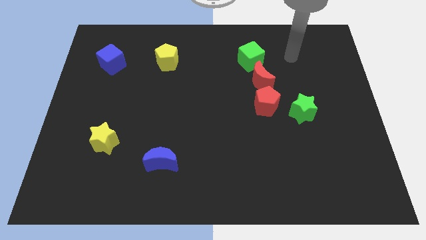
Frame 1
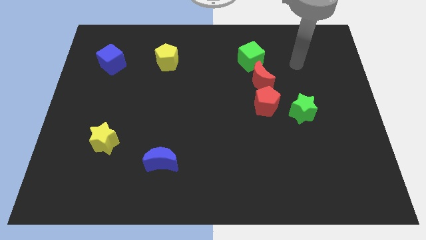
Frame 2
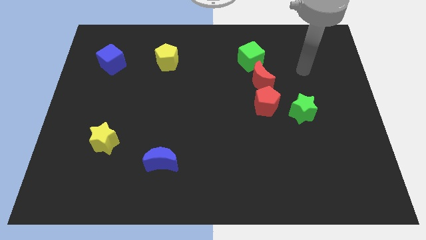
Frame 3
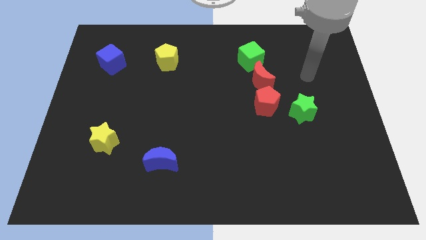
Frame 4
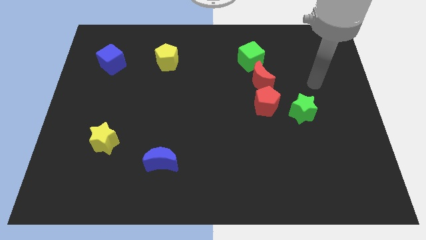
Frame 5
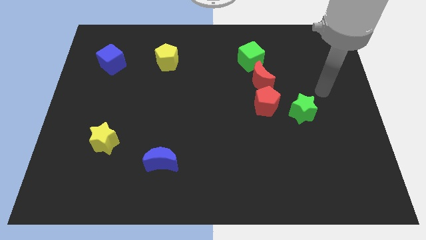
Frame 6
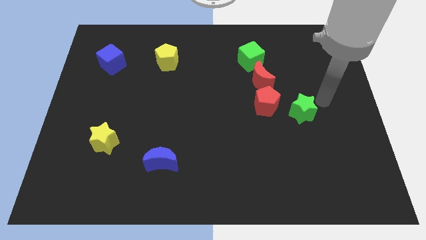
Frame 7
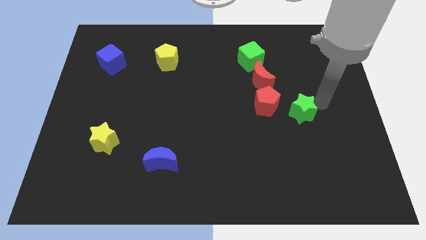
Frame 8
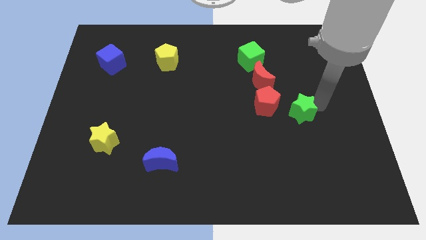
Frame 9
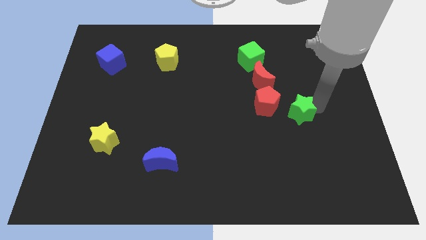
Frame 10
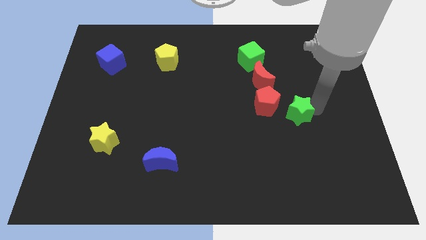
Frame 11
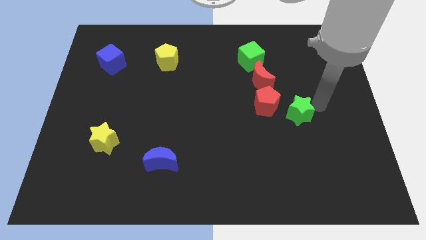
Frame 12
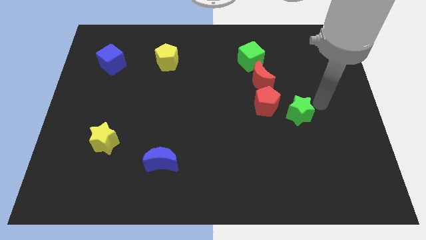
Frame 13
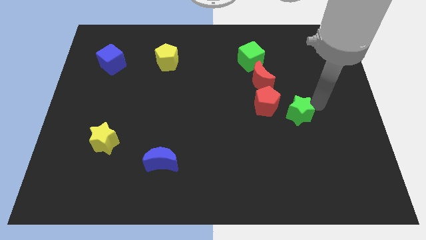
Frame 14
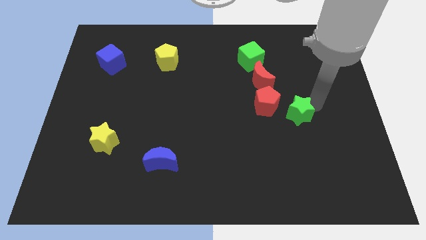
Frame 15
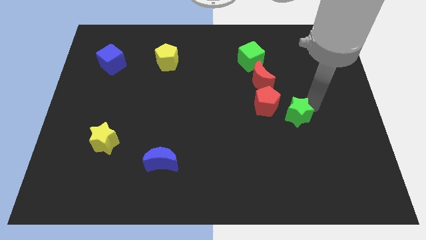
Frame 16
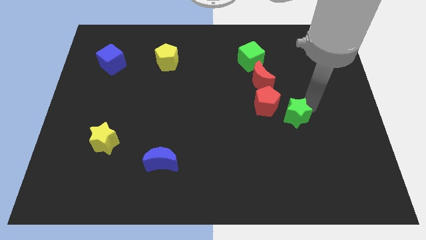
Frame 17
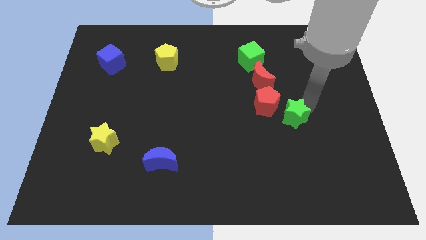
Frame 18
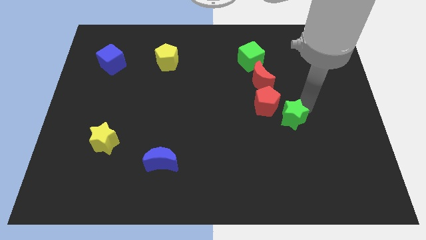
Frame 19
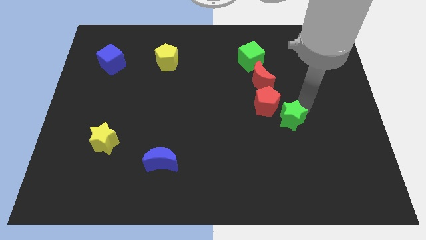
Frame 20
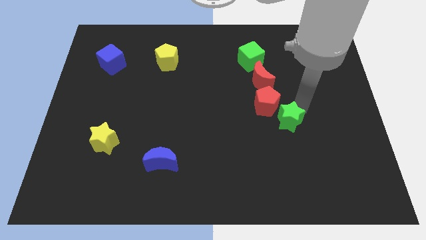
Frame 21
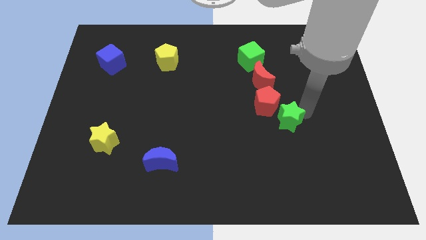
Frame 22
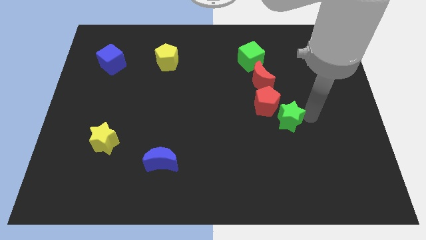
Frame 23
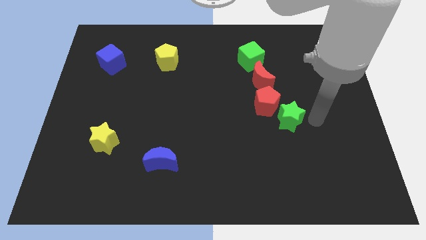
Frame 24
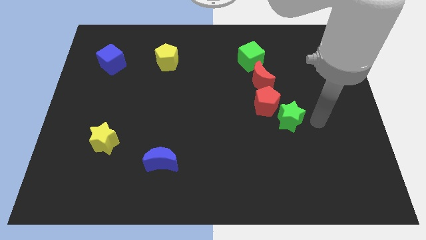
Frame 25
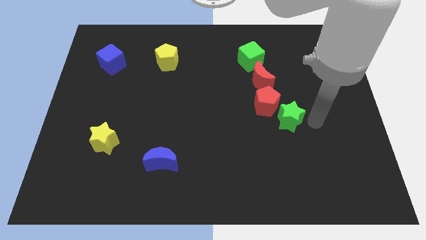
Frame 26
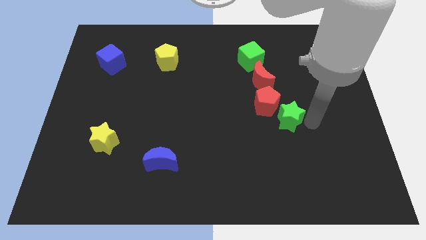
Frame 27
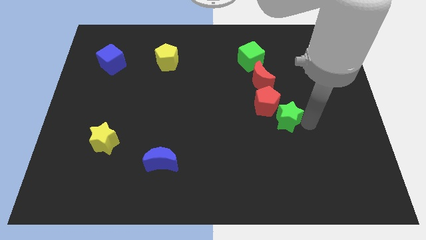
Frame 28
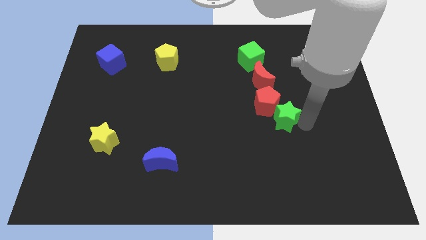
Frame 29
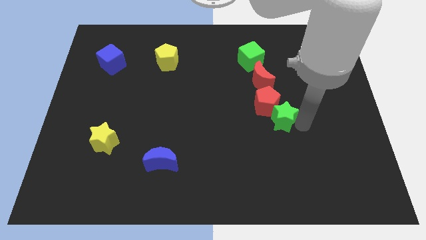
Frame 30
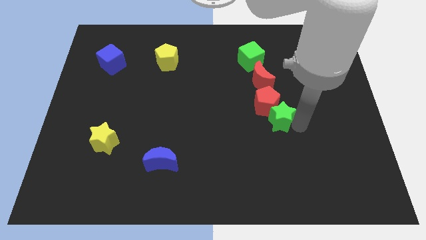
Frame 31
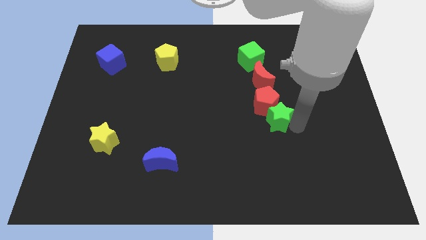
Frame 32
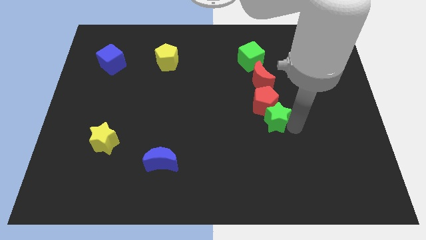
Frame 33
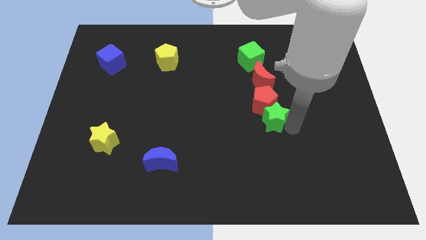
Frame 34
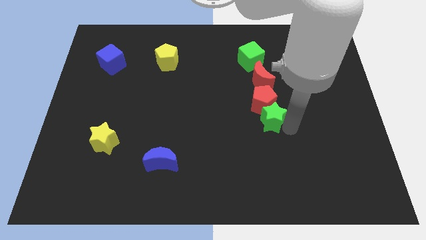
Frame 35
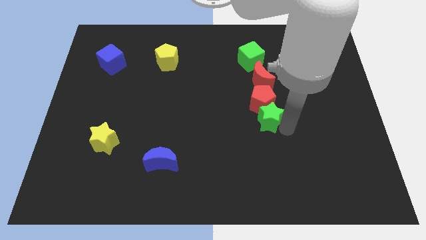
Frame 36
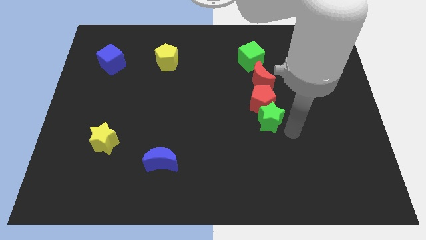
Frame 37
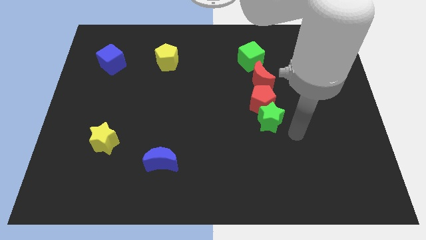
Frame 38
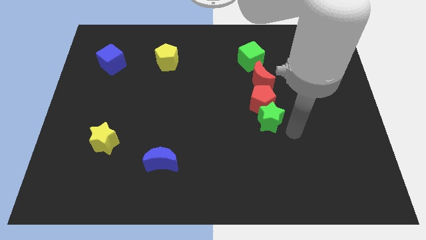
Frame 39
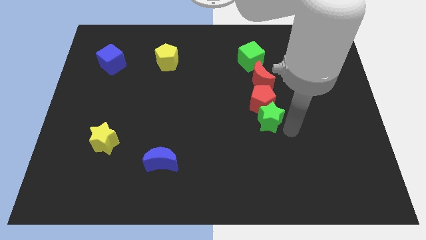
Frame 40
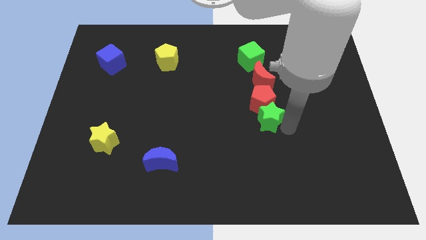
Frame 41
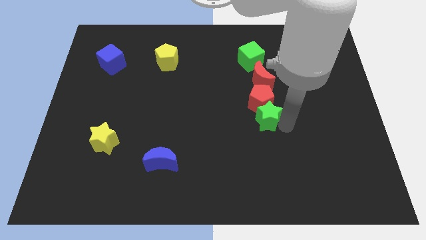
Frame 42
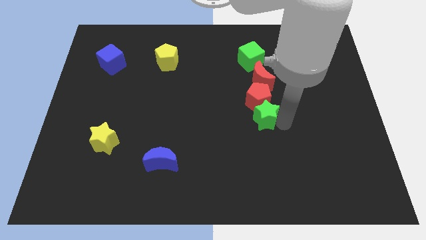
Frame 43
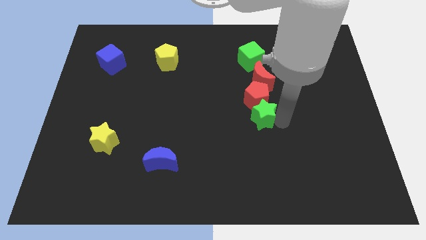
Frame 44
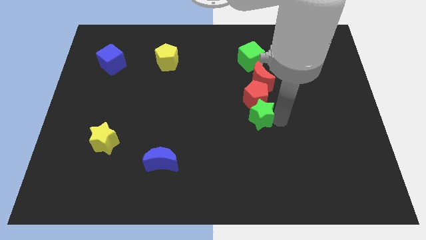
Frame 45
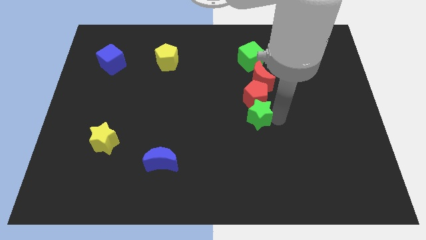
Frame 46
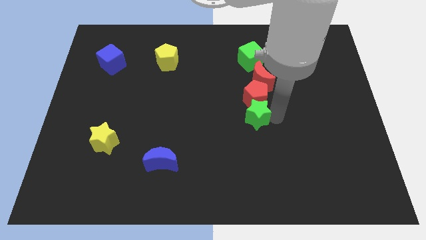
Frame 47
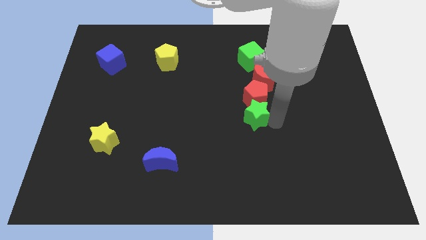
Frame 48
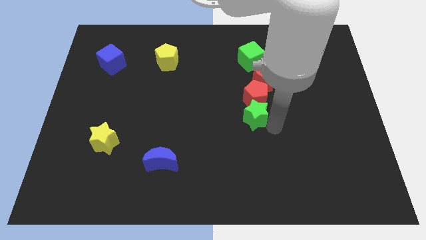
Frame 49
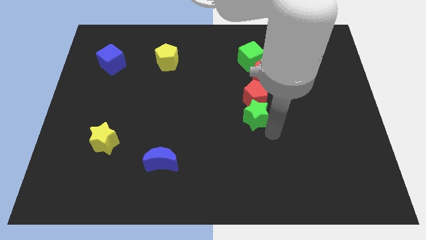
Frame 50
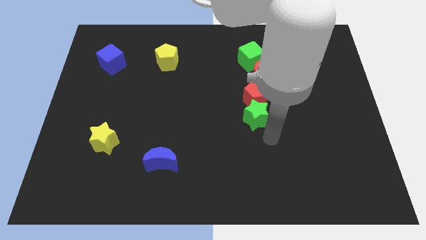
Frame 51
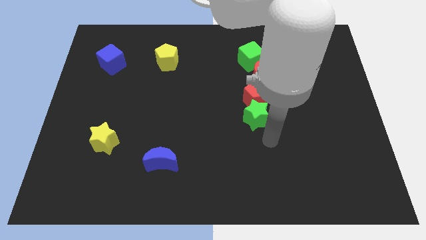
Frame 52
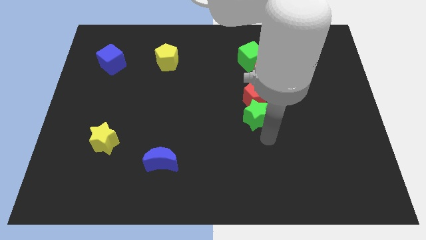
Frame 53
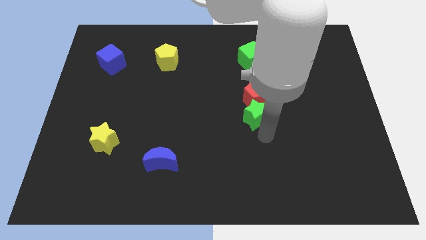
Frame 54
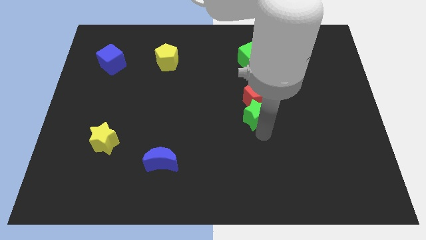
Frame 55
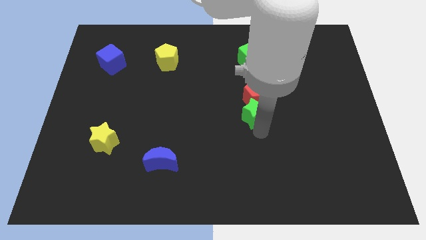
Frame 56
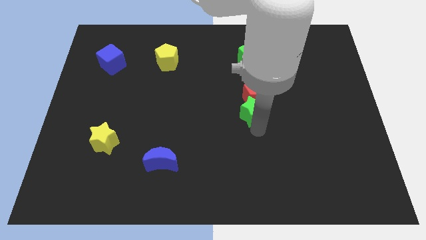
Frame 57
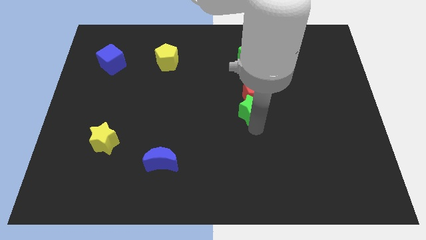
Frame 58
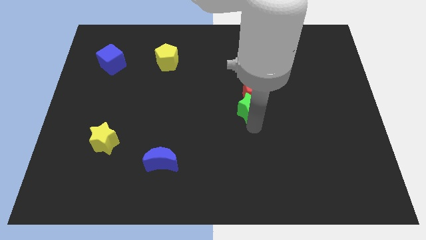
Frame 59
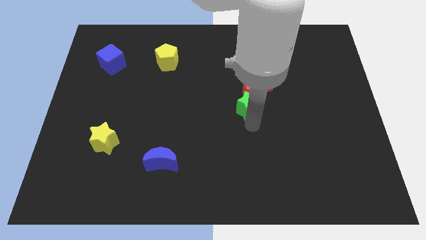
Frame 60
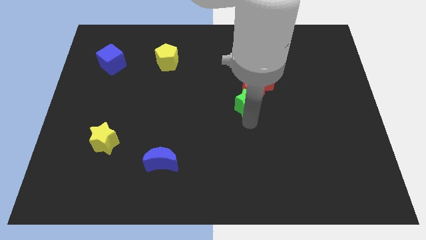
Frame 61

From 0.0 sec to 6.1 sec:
move the green star diagonally up and to the left a little

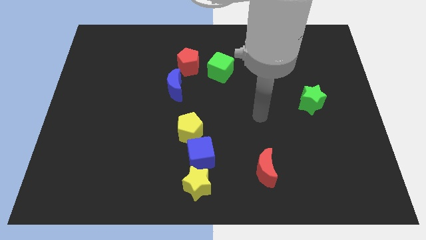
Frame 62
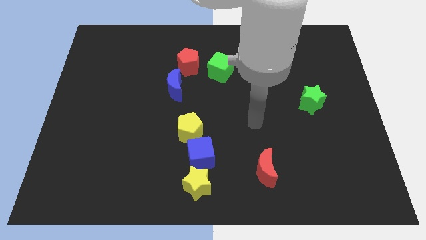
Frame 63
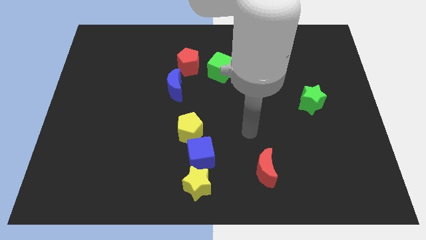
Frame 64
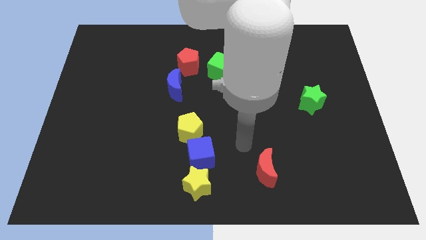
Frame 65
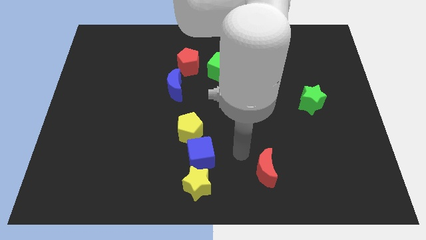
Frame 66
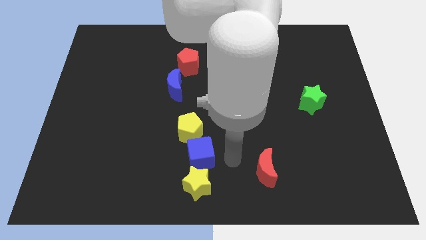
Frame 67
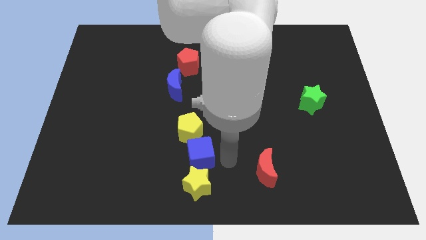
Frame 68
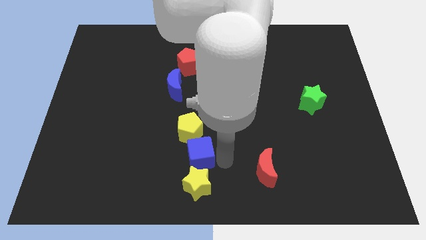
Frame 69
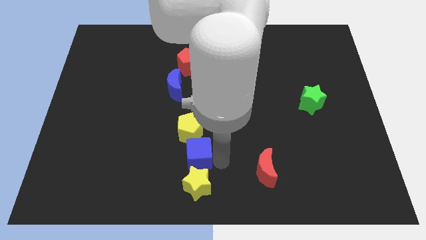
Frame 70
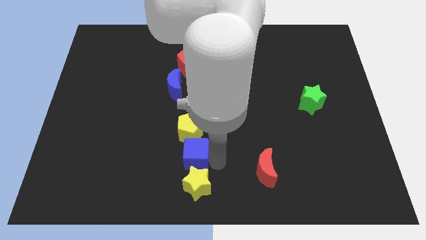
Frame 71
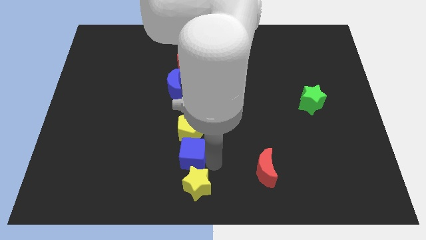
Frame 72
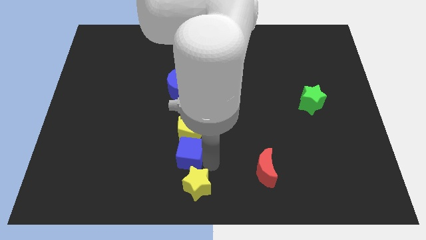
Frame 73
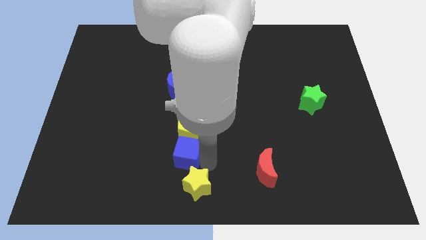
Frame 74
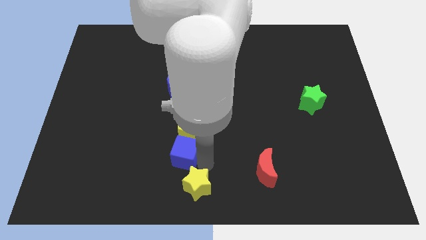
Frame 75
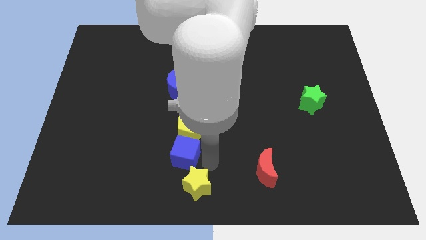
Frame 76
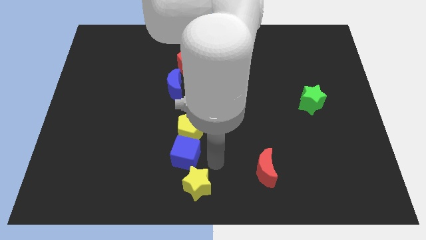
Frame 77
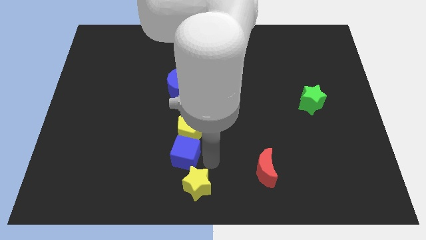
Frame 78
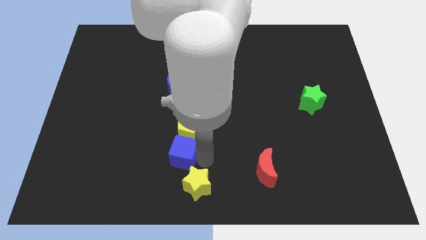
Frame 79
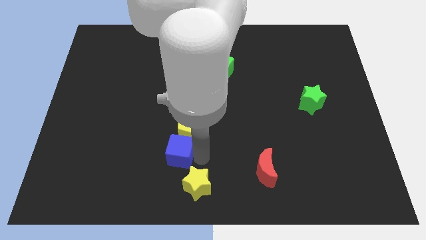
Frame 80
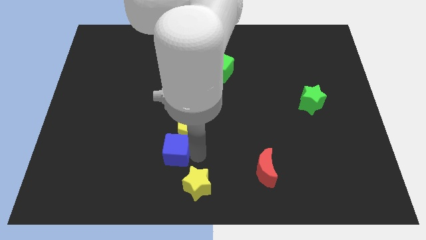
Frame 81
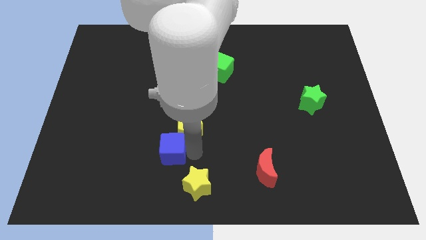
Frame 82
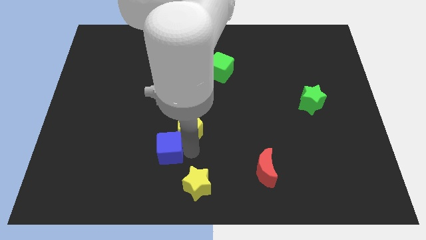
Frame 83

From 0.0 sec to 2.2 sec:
slightly push the blue cube to the left

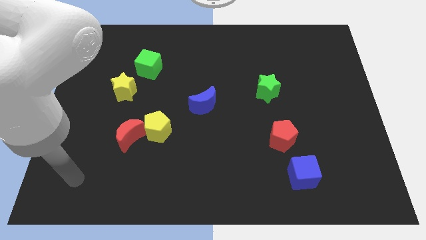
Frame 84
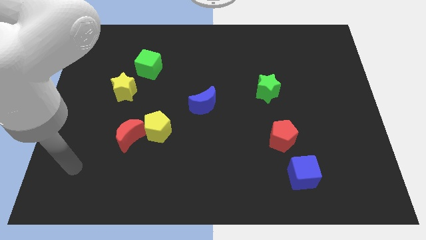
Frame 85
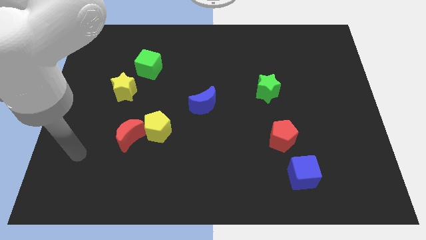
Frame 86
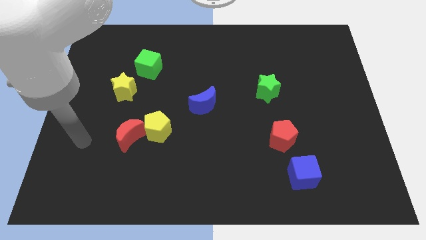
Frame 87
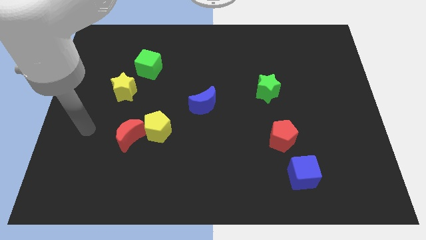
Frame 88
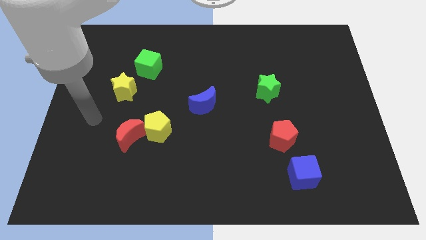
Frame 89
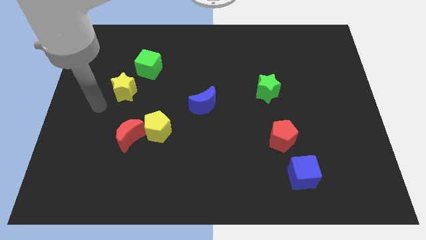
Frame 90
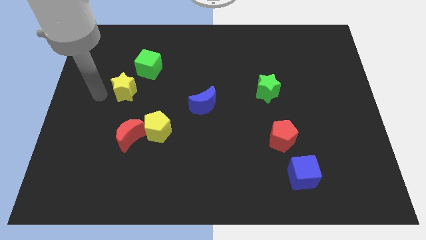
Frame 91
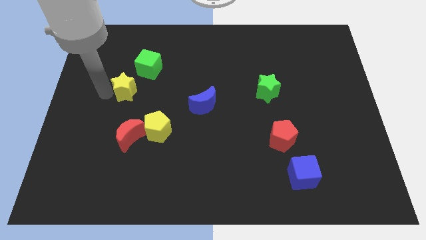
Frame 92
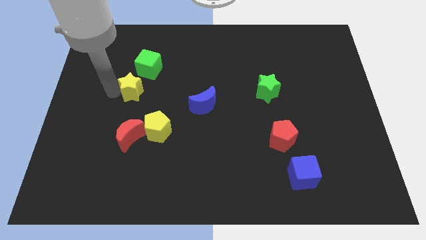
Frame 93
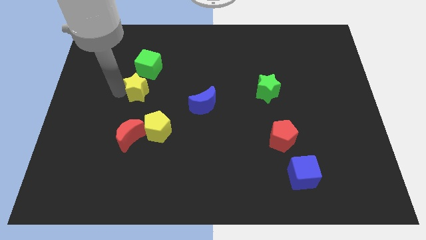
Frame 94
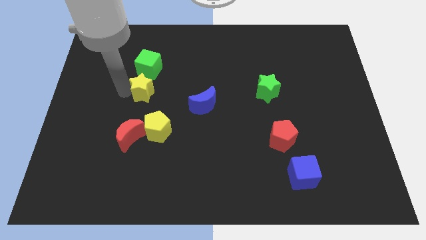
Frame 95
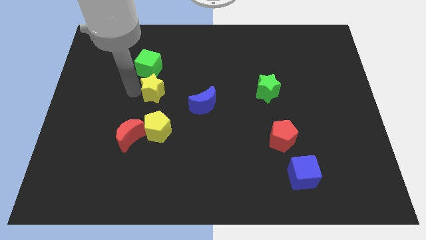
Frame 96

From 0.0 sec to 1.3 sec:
slightly slide the yellow star right
